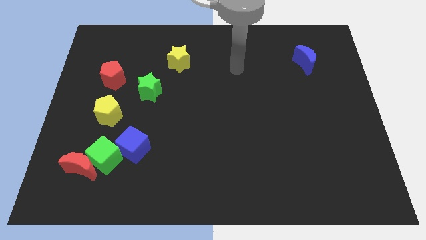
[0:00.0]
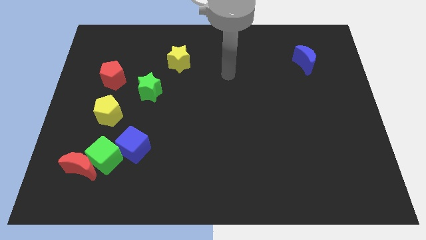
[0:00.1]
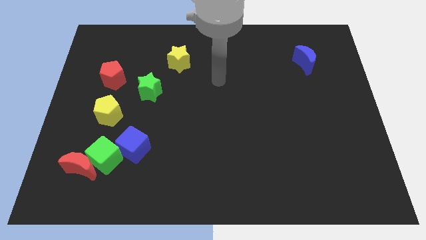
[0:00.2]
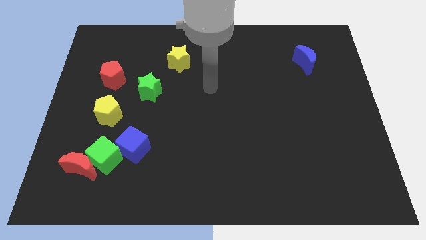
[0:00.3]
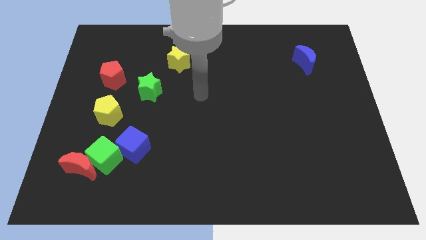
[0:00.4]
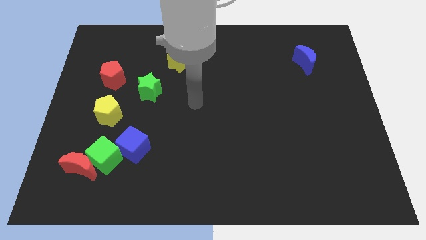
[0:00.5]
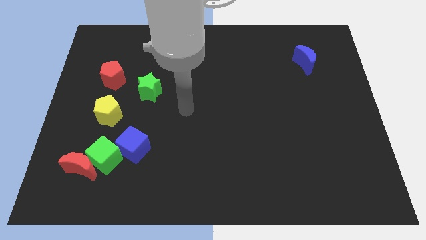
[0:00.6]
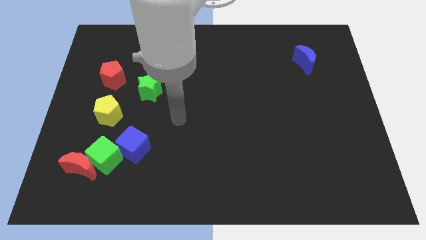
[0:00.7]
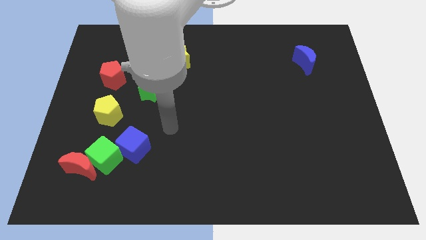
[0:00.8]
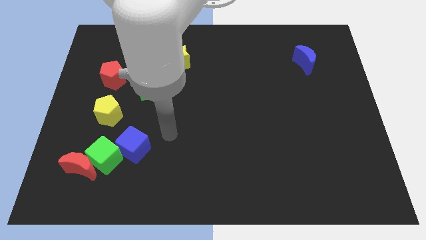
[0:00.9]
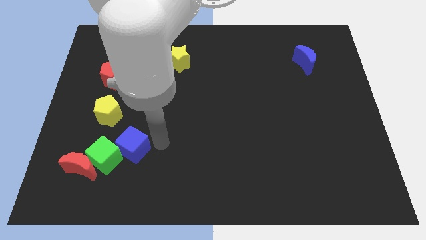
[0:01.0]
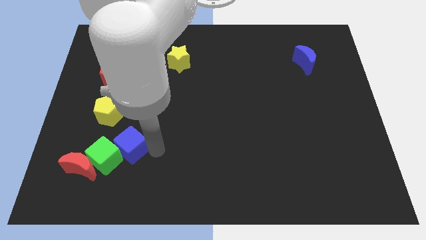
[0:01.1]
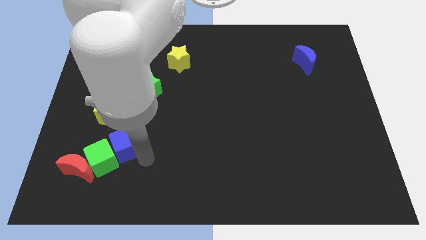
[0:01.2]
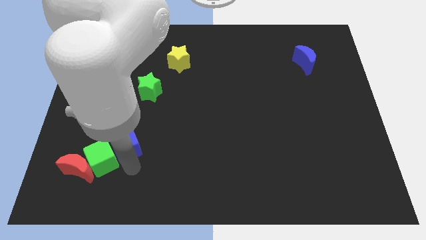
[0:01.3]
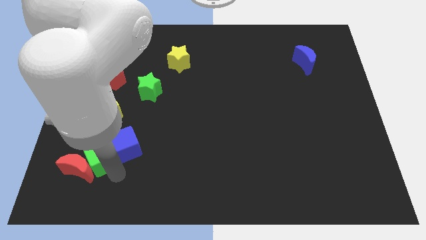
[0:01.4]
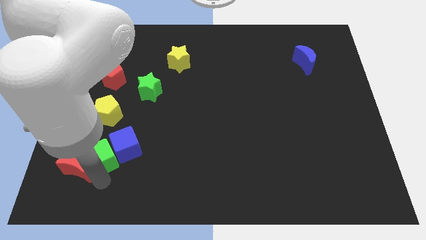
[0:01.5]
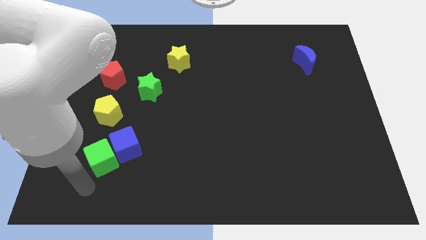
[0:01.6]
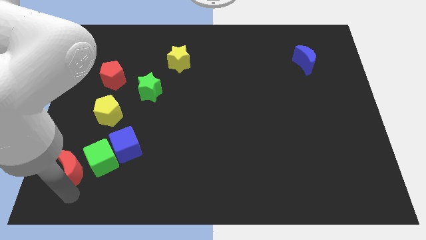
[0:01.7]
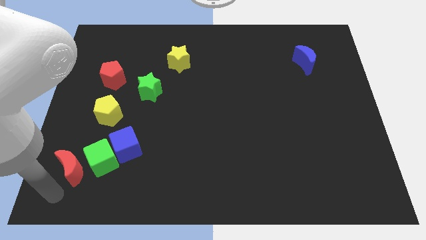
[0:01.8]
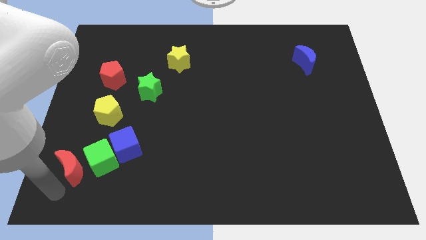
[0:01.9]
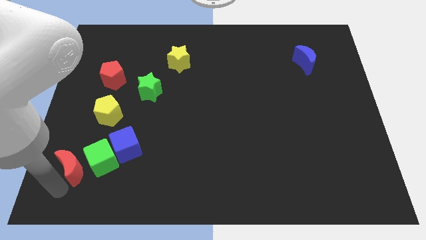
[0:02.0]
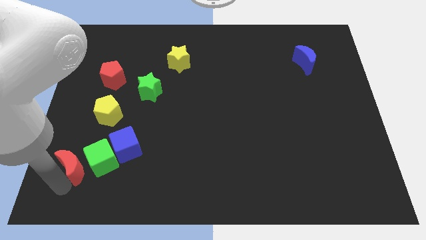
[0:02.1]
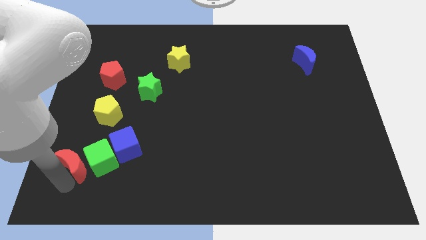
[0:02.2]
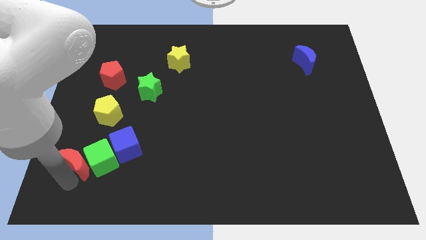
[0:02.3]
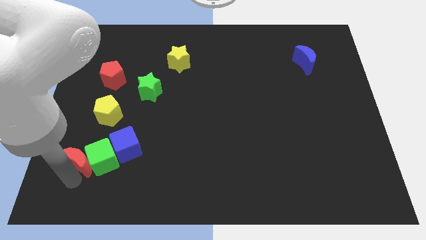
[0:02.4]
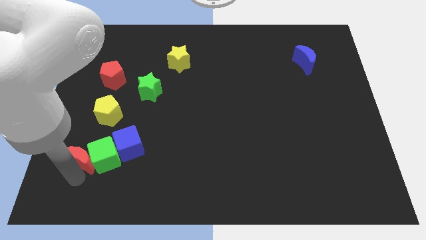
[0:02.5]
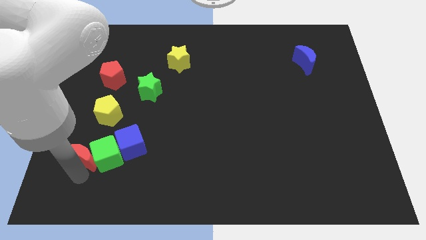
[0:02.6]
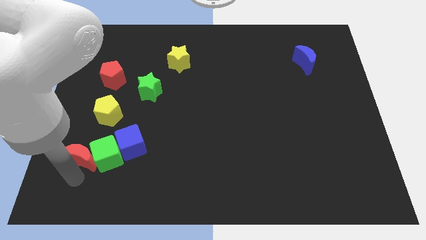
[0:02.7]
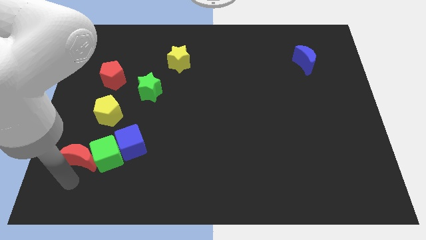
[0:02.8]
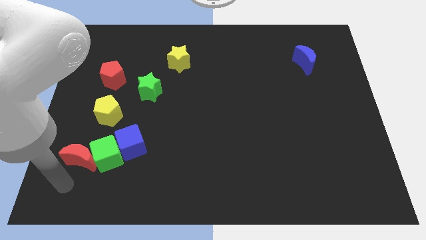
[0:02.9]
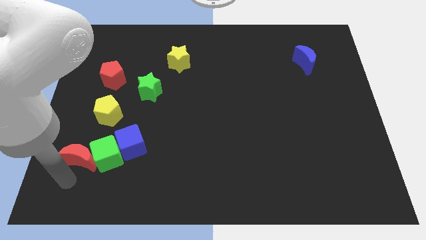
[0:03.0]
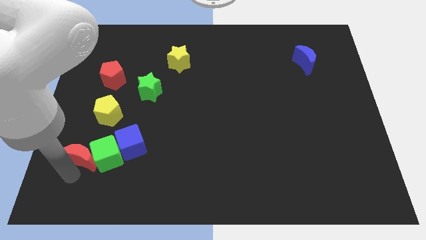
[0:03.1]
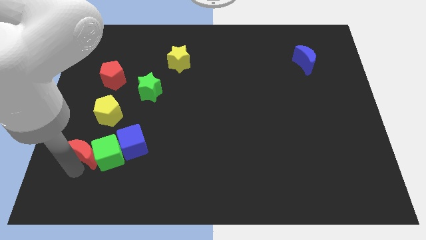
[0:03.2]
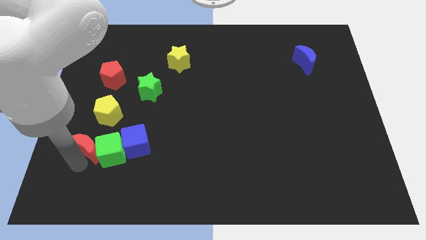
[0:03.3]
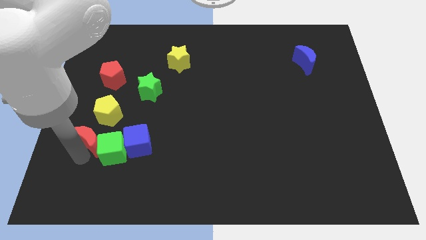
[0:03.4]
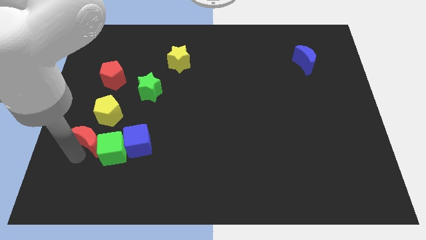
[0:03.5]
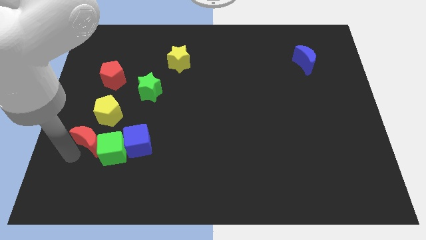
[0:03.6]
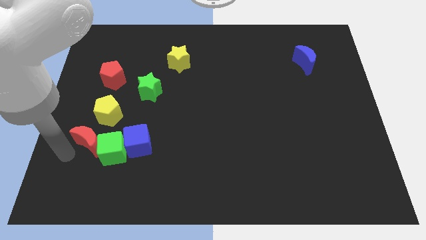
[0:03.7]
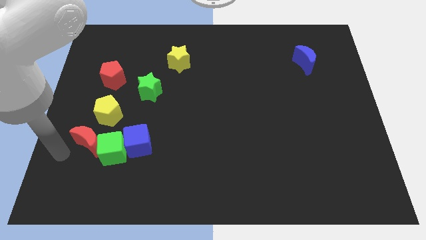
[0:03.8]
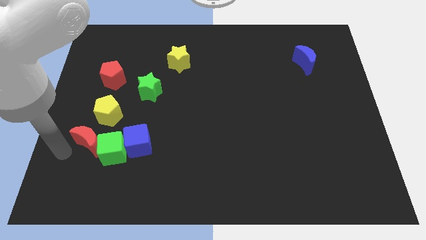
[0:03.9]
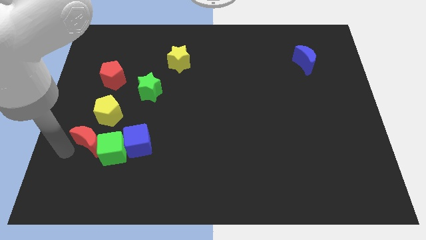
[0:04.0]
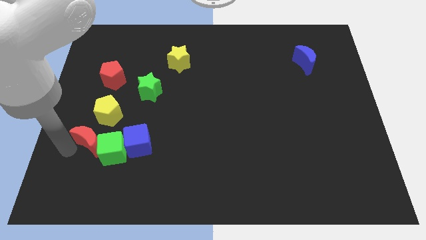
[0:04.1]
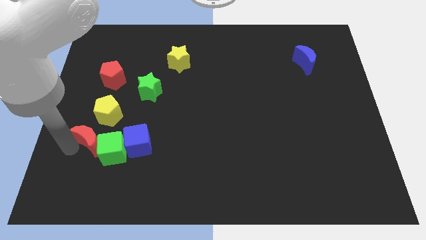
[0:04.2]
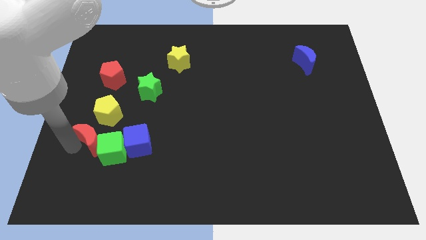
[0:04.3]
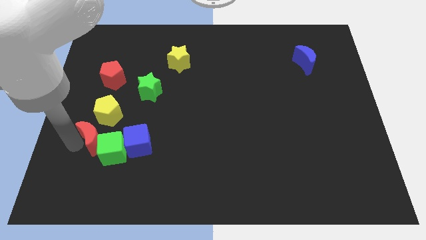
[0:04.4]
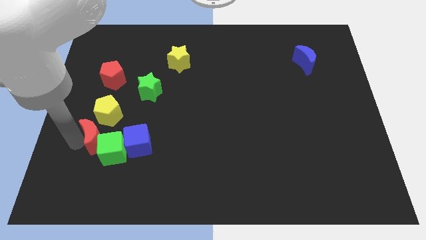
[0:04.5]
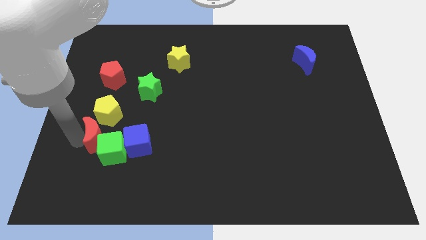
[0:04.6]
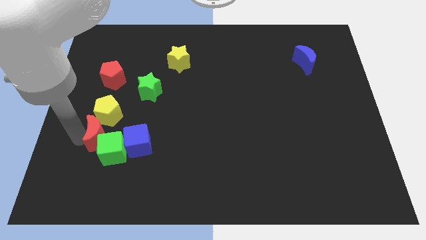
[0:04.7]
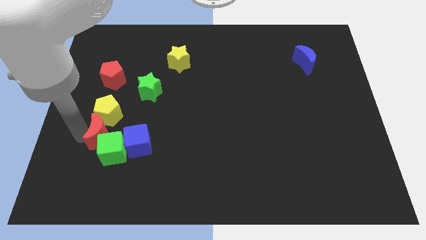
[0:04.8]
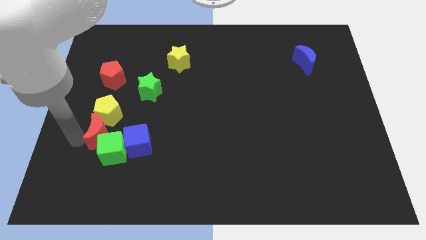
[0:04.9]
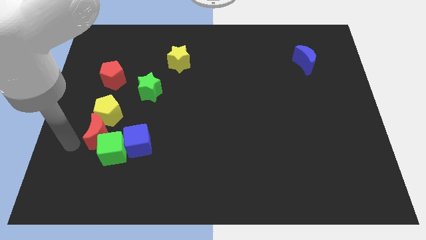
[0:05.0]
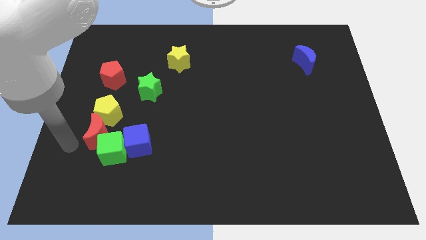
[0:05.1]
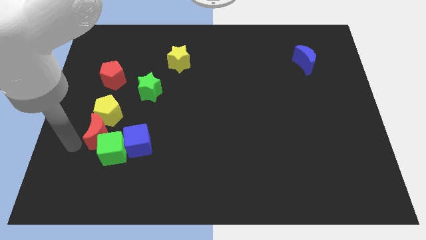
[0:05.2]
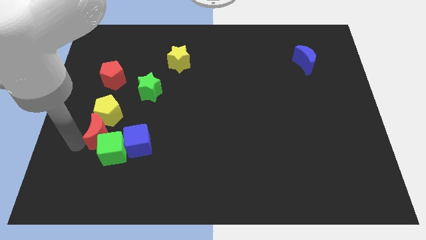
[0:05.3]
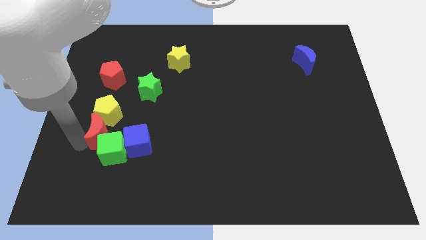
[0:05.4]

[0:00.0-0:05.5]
push the red moon a little upwards and right

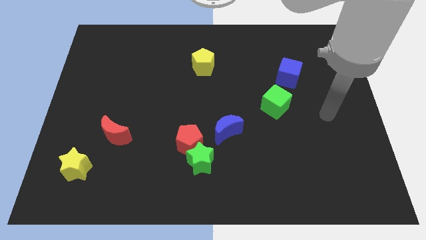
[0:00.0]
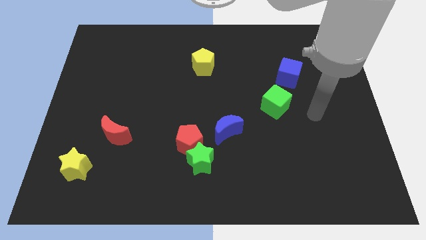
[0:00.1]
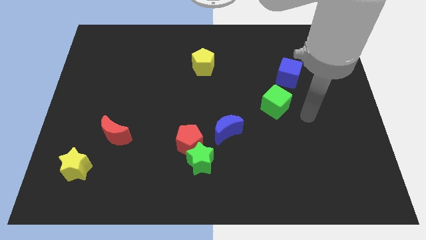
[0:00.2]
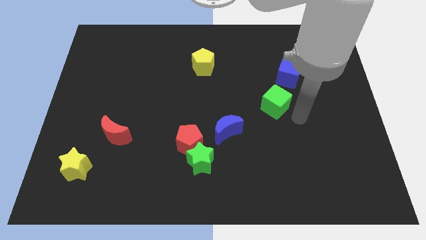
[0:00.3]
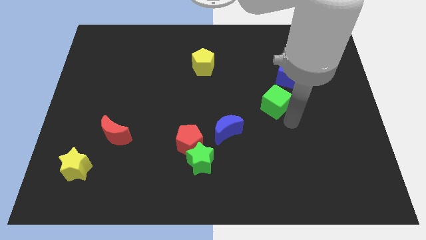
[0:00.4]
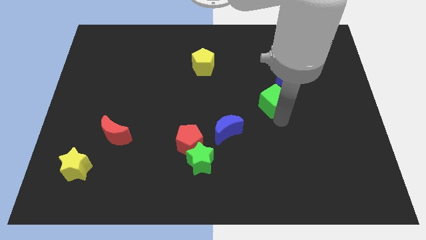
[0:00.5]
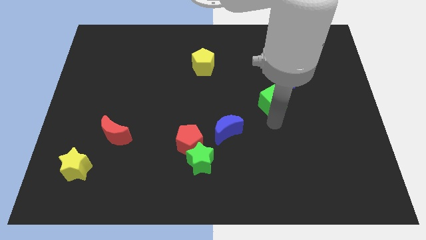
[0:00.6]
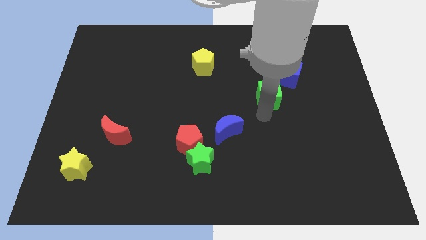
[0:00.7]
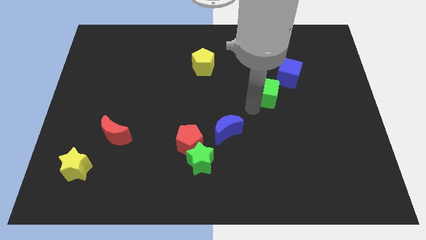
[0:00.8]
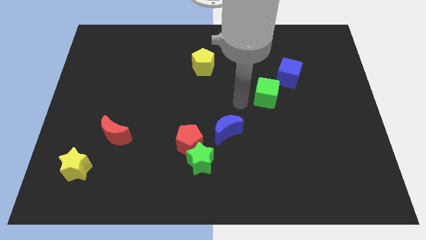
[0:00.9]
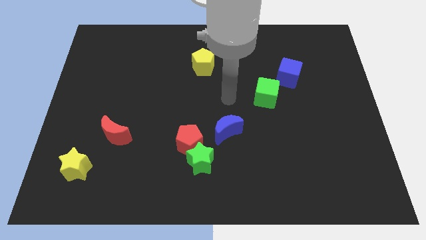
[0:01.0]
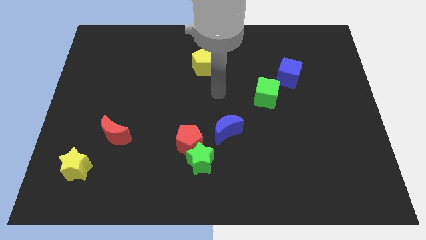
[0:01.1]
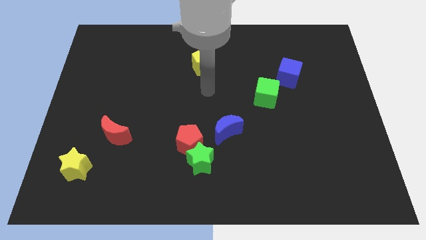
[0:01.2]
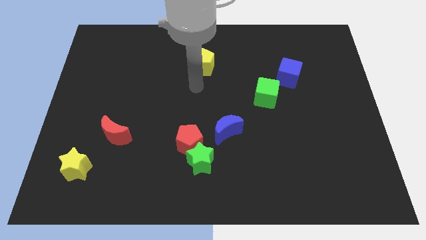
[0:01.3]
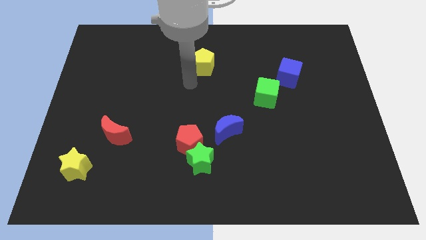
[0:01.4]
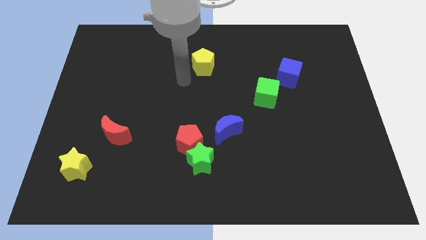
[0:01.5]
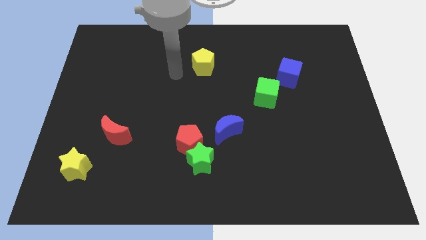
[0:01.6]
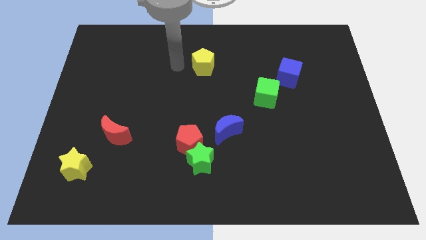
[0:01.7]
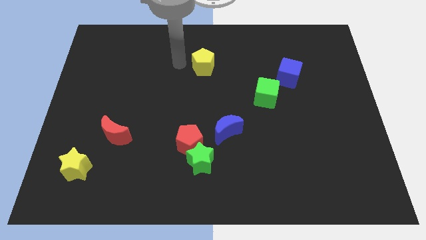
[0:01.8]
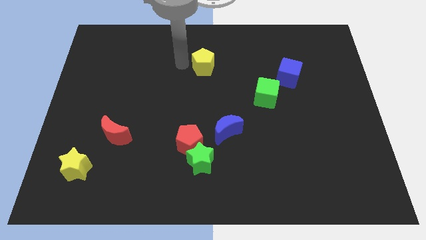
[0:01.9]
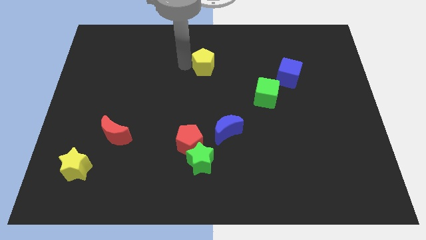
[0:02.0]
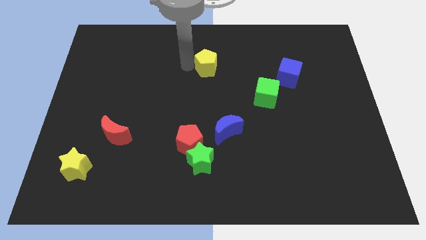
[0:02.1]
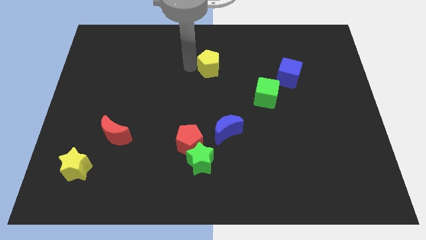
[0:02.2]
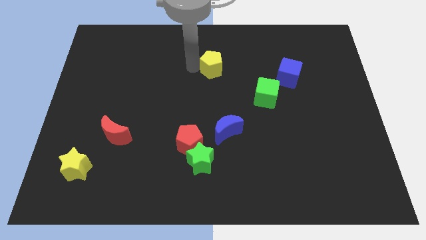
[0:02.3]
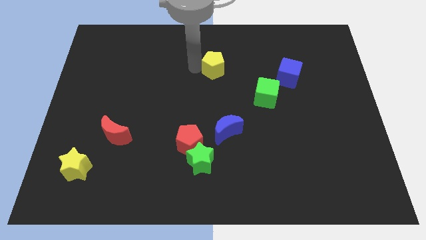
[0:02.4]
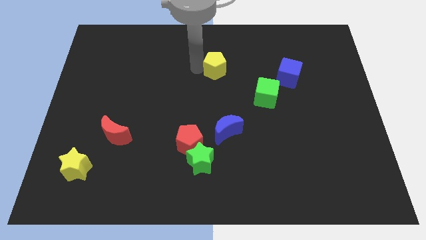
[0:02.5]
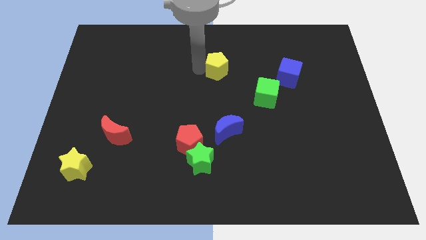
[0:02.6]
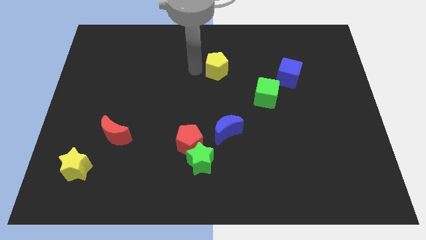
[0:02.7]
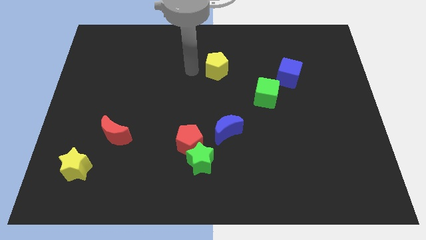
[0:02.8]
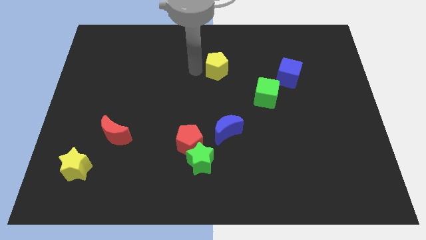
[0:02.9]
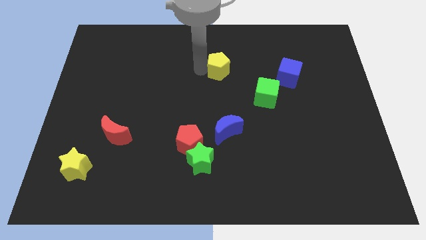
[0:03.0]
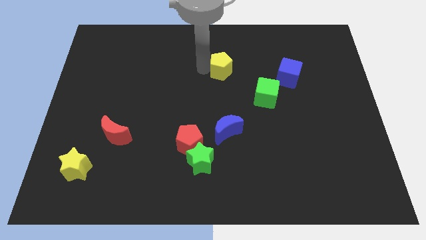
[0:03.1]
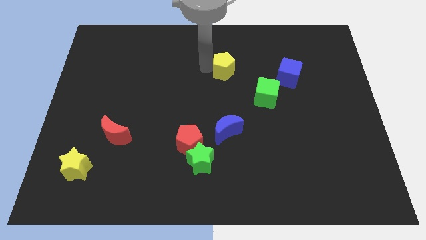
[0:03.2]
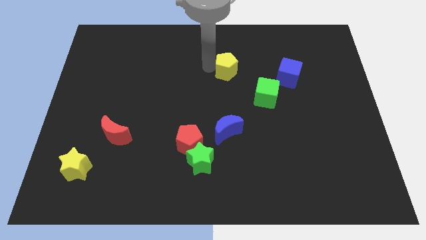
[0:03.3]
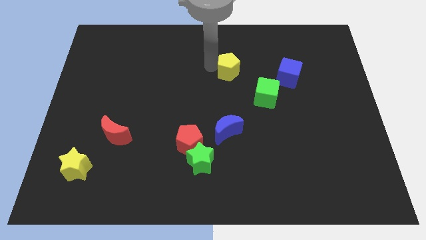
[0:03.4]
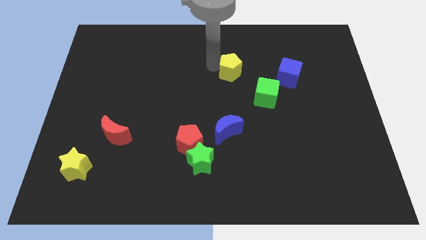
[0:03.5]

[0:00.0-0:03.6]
slightly move the yellow pentagon to the right
